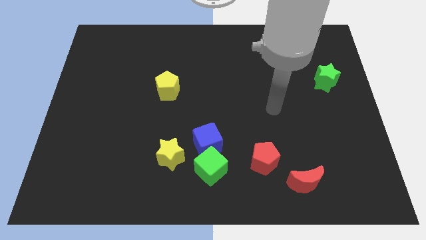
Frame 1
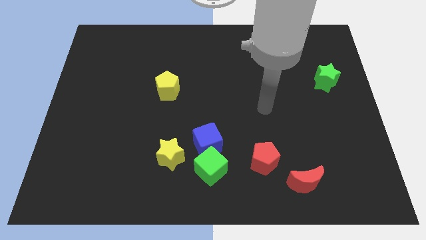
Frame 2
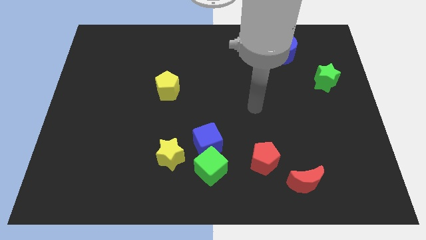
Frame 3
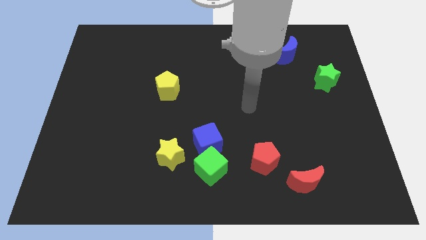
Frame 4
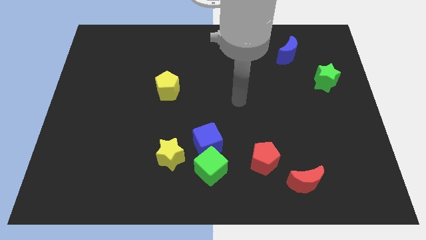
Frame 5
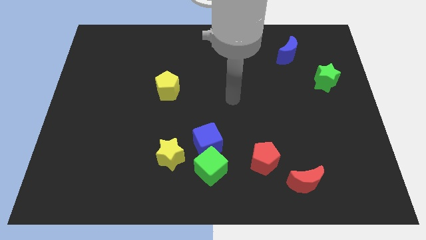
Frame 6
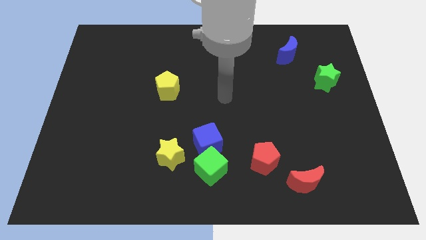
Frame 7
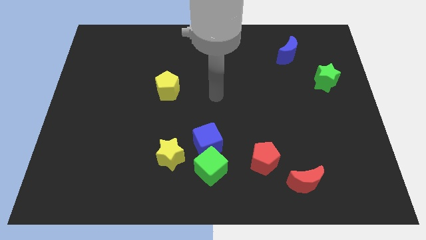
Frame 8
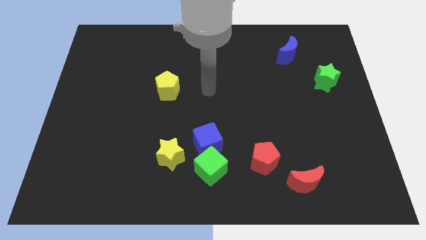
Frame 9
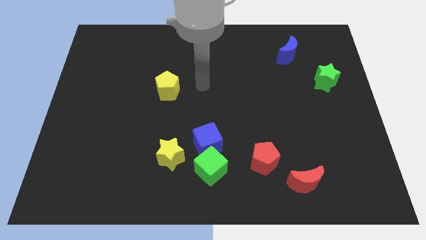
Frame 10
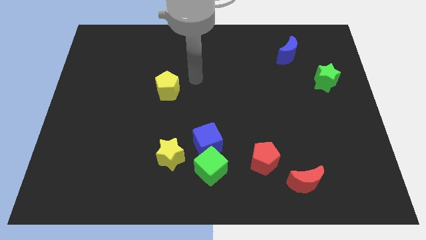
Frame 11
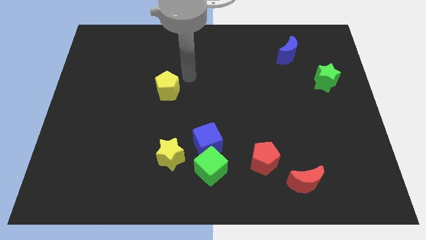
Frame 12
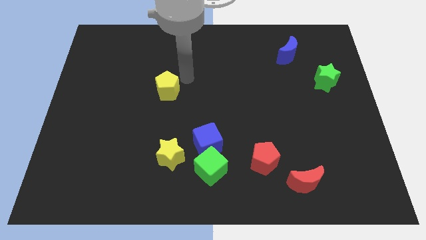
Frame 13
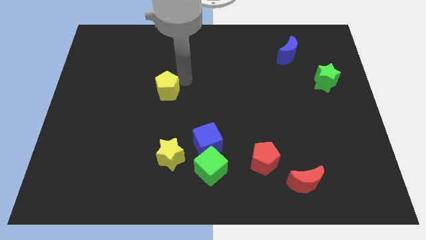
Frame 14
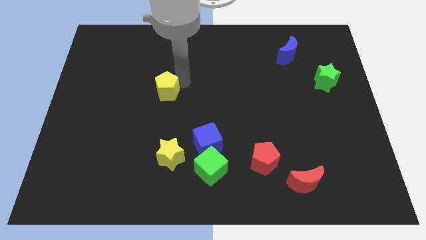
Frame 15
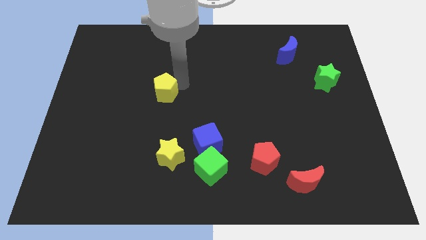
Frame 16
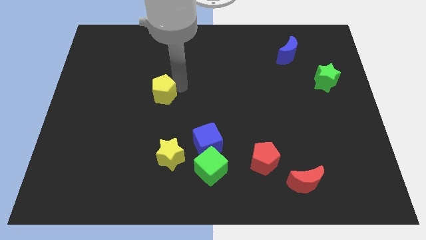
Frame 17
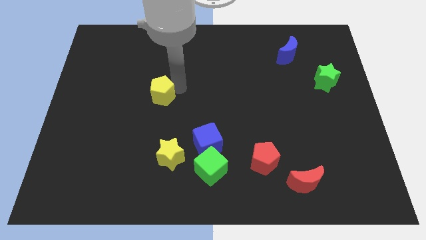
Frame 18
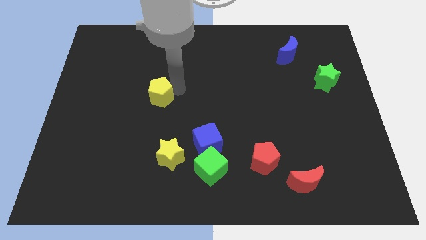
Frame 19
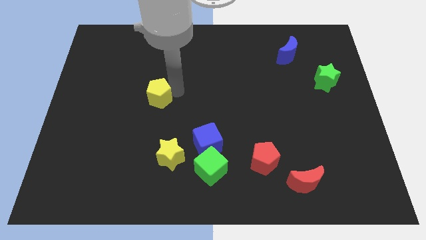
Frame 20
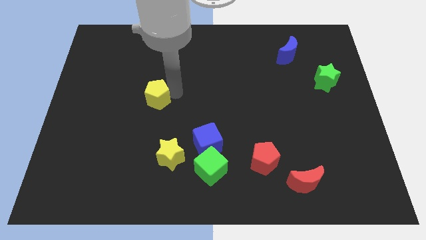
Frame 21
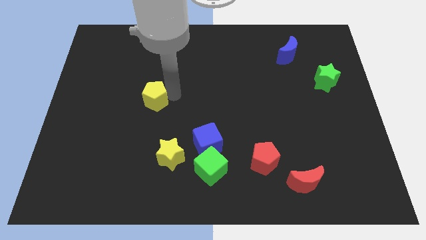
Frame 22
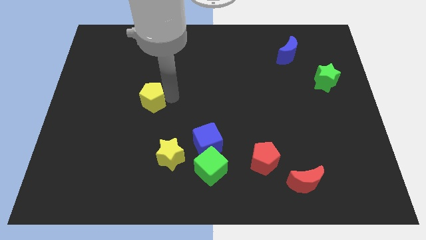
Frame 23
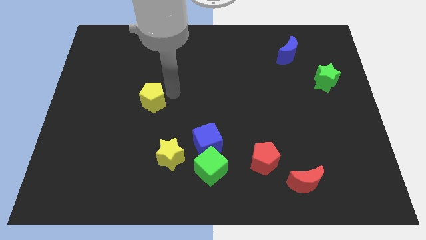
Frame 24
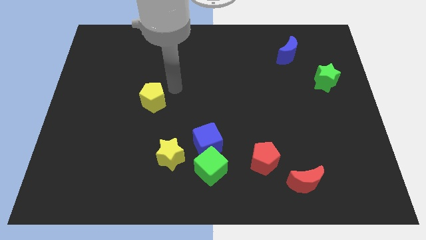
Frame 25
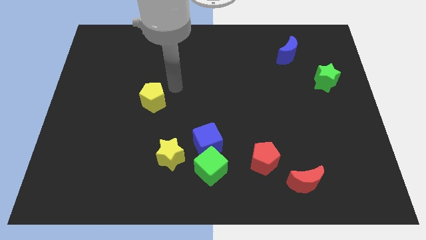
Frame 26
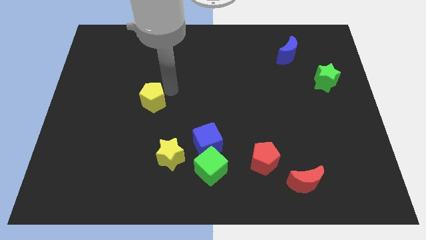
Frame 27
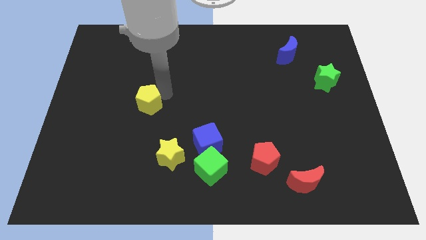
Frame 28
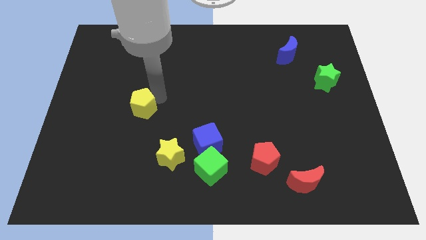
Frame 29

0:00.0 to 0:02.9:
slide the yellow pentagon diagonally down and to the left slightly

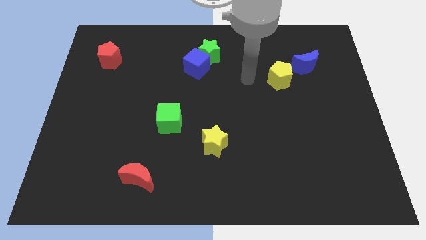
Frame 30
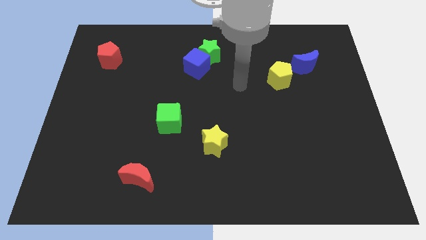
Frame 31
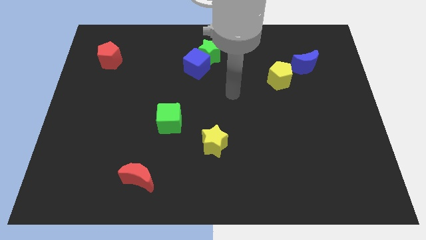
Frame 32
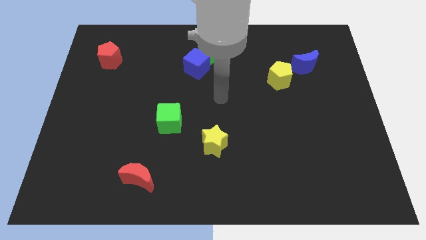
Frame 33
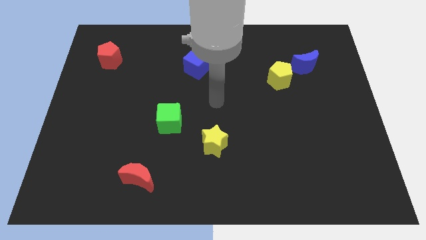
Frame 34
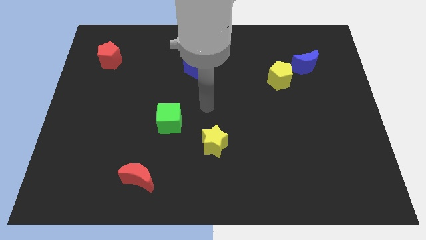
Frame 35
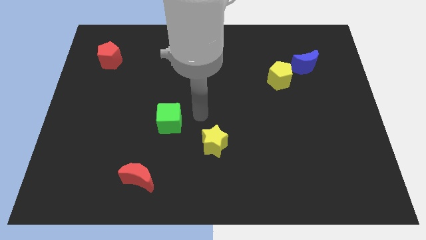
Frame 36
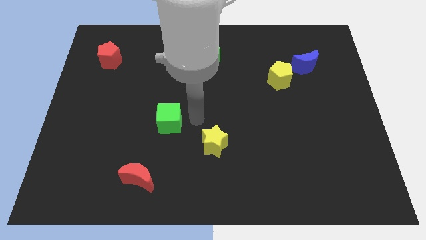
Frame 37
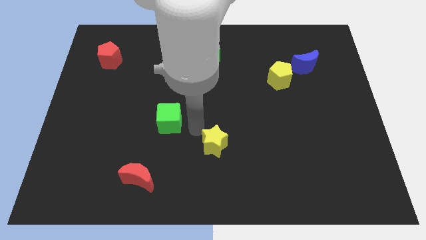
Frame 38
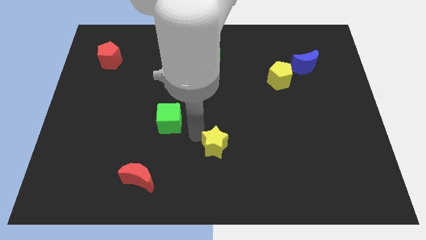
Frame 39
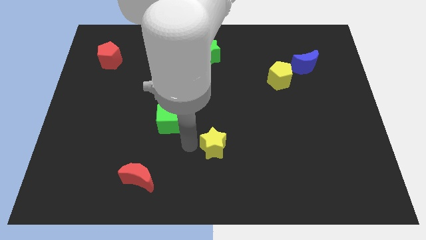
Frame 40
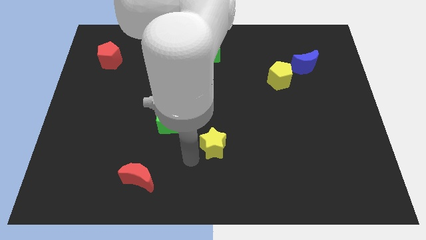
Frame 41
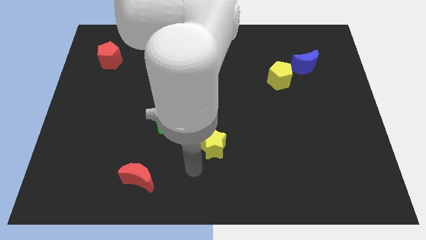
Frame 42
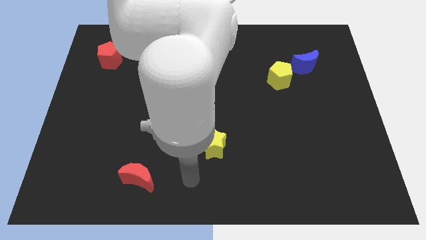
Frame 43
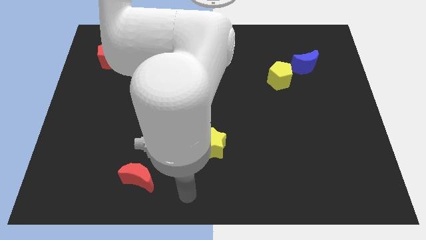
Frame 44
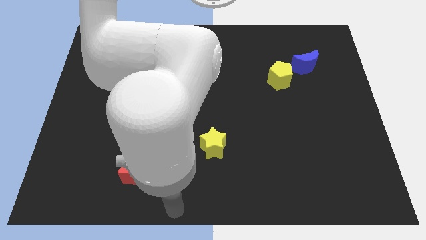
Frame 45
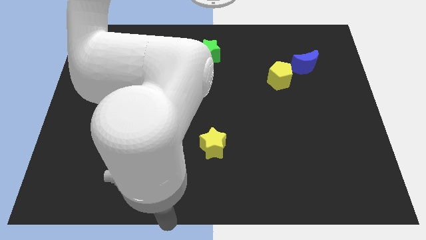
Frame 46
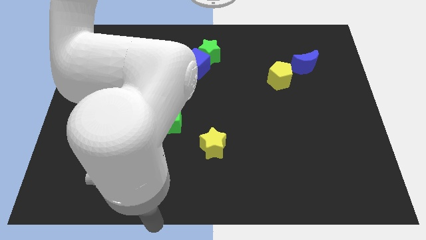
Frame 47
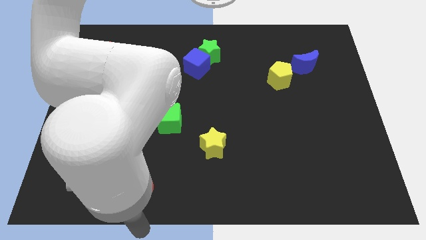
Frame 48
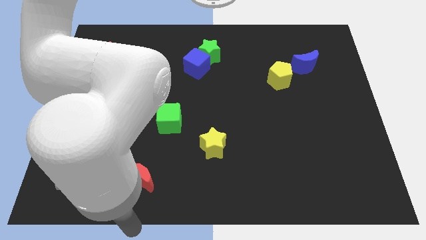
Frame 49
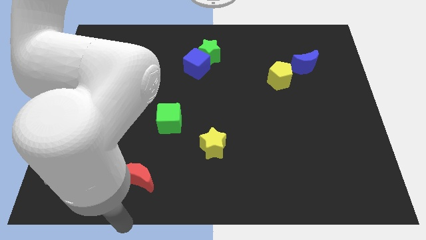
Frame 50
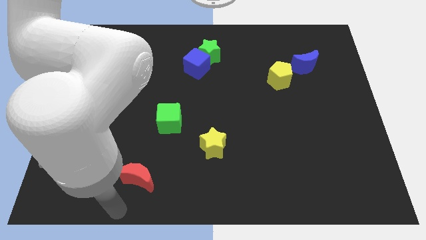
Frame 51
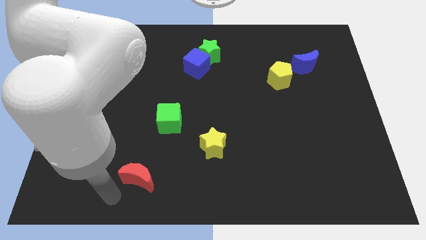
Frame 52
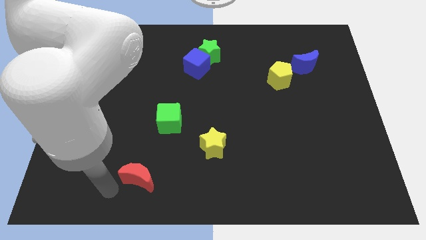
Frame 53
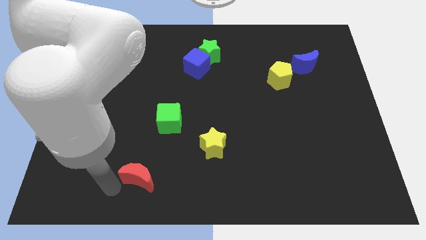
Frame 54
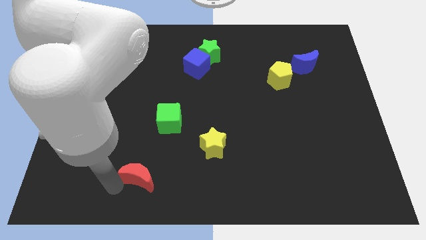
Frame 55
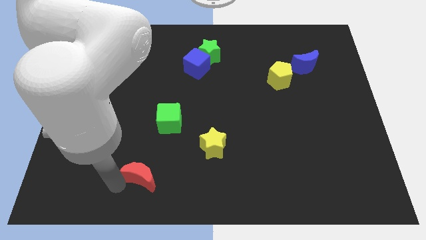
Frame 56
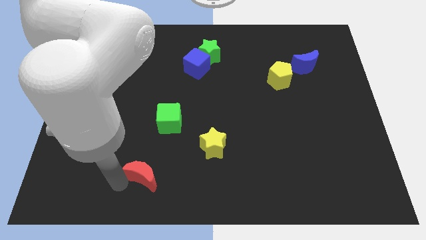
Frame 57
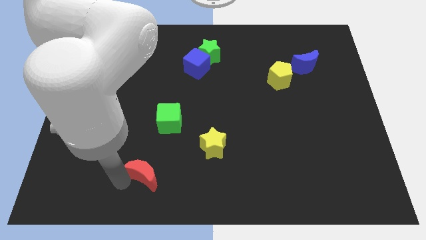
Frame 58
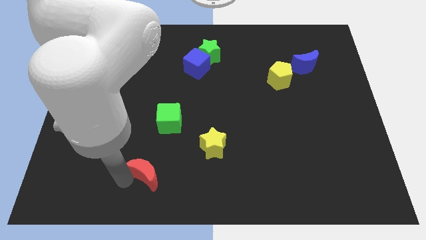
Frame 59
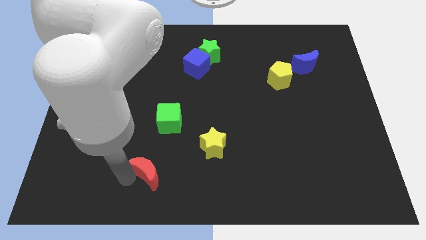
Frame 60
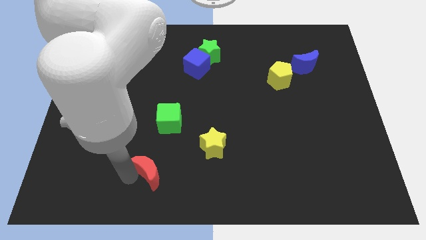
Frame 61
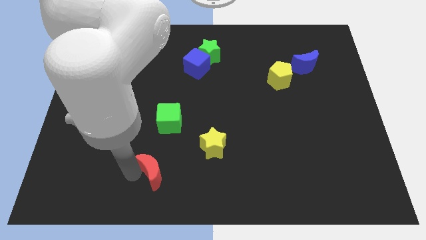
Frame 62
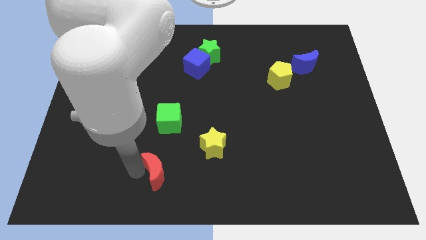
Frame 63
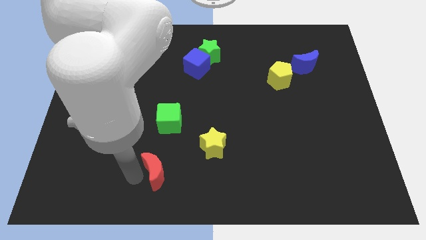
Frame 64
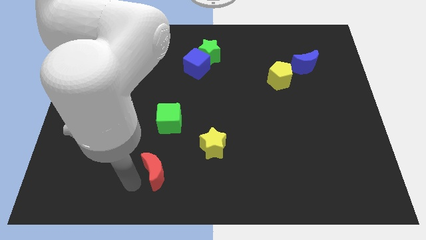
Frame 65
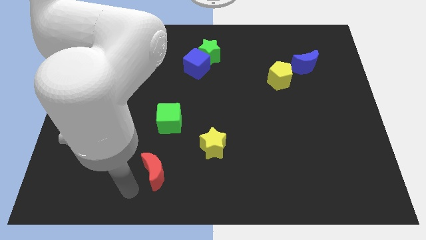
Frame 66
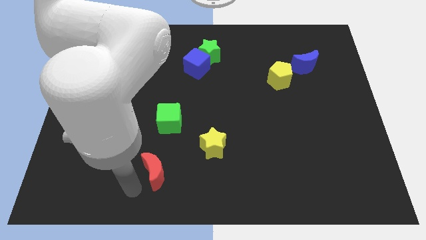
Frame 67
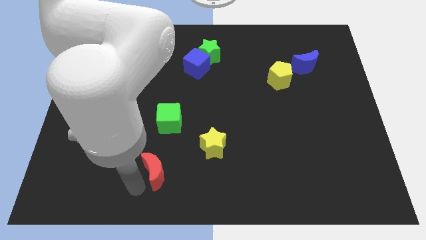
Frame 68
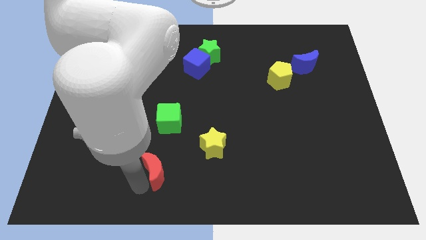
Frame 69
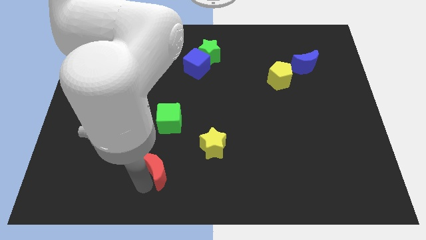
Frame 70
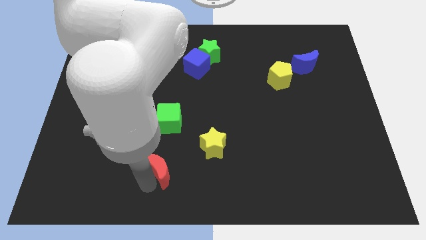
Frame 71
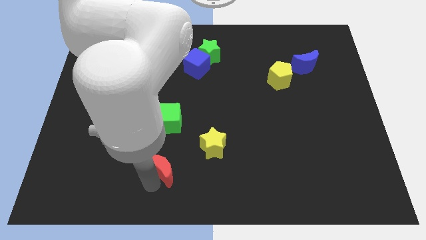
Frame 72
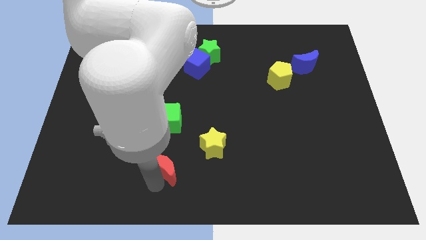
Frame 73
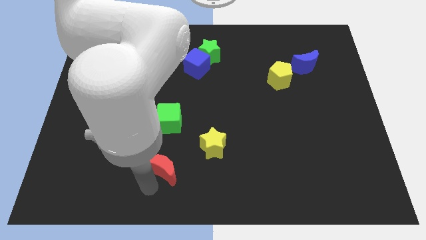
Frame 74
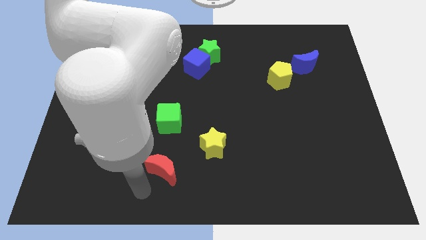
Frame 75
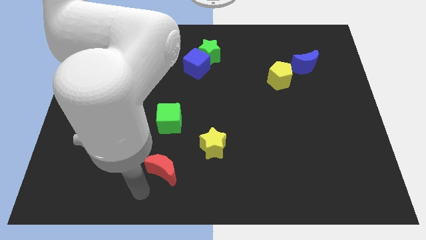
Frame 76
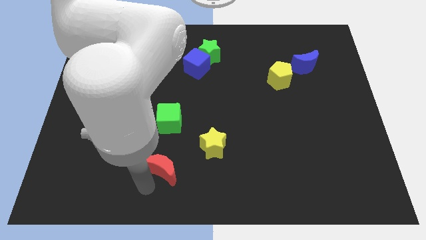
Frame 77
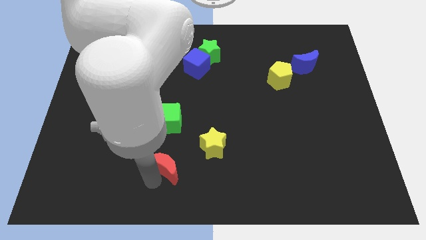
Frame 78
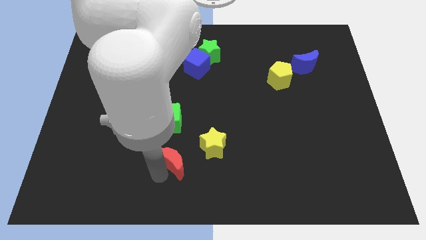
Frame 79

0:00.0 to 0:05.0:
slightly push the red moon upwards and then to the right
